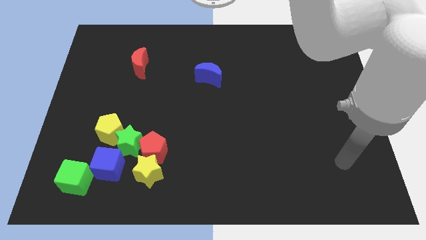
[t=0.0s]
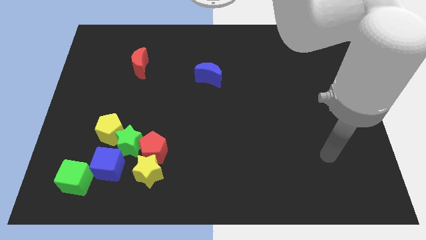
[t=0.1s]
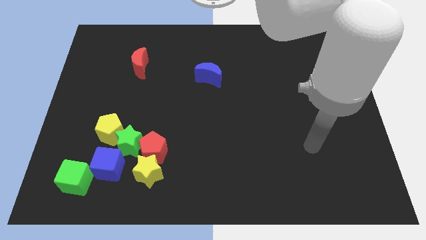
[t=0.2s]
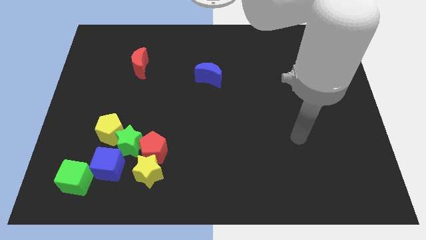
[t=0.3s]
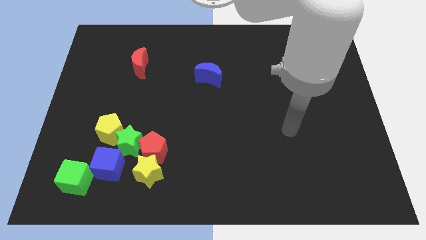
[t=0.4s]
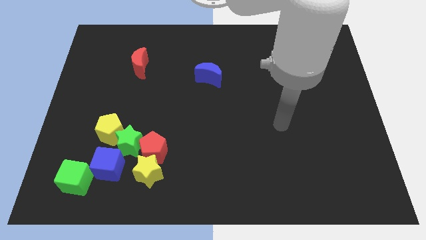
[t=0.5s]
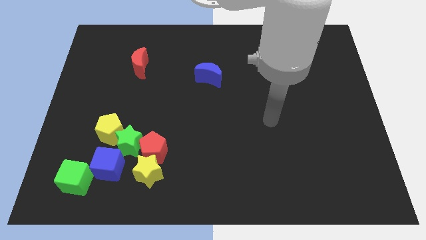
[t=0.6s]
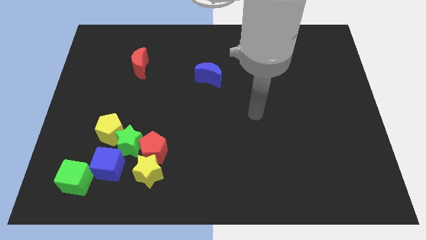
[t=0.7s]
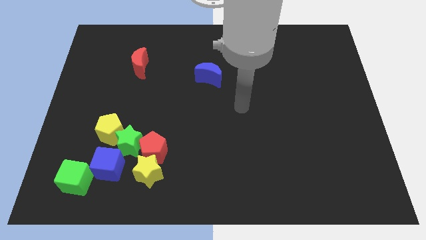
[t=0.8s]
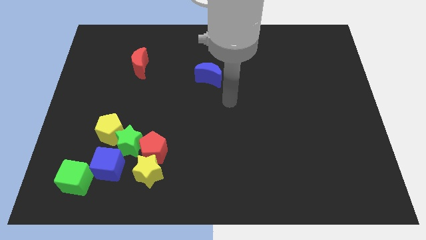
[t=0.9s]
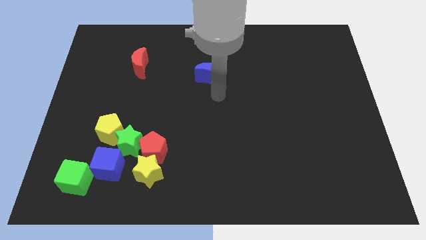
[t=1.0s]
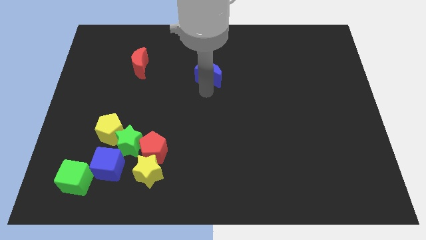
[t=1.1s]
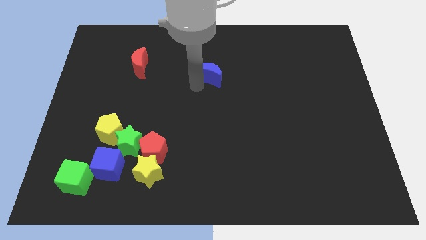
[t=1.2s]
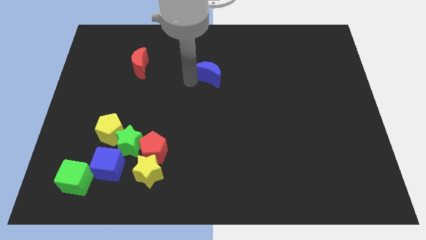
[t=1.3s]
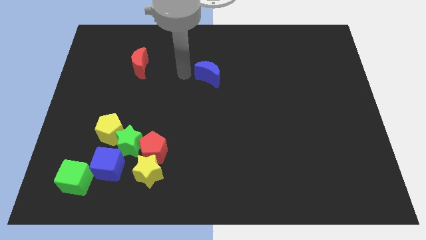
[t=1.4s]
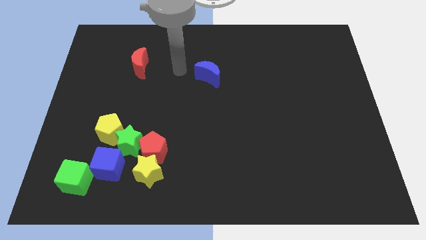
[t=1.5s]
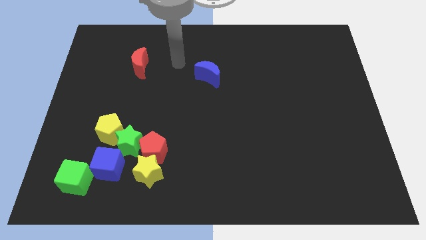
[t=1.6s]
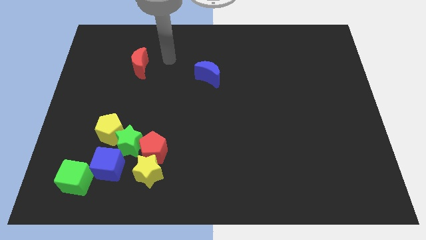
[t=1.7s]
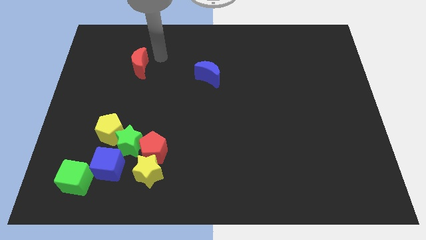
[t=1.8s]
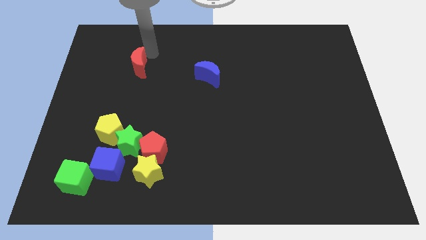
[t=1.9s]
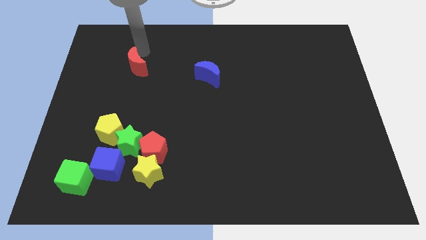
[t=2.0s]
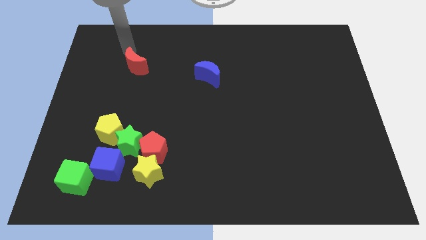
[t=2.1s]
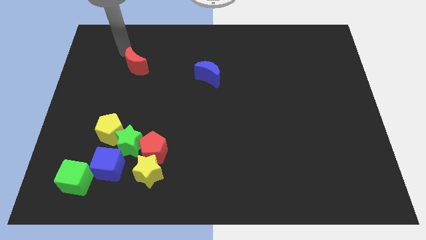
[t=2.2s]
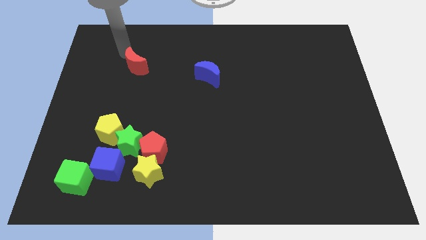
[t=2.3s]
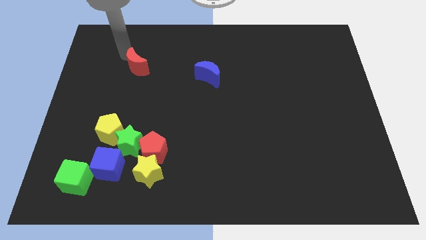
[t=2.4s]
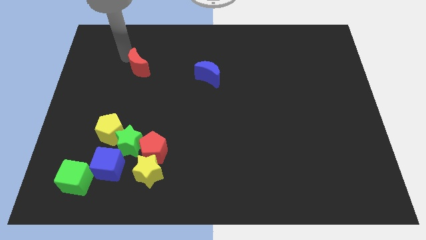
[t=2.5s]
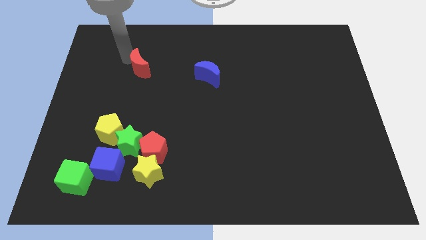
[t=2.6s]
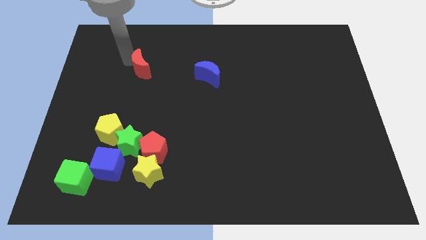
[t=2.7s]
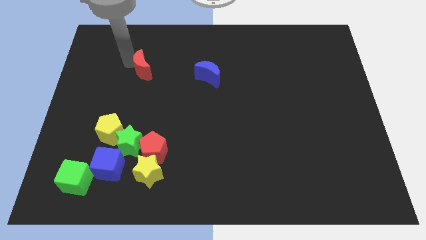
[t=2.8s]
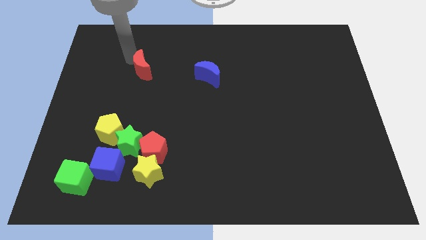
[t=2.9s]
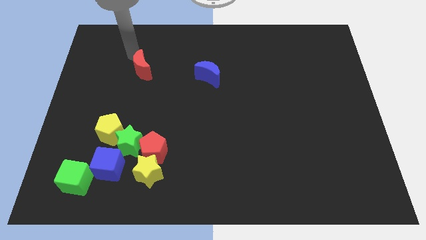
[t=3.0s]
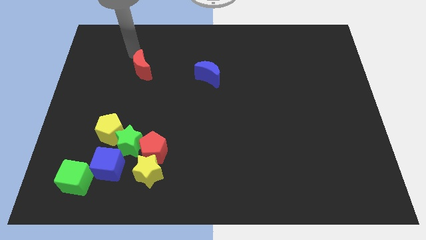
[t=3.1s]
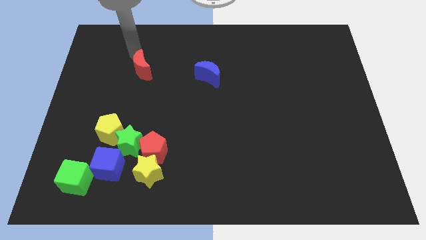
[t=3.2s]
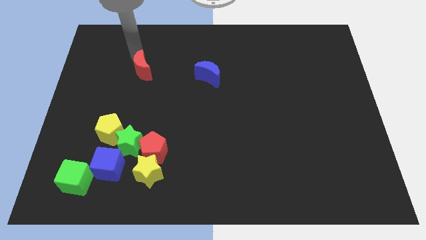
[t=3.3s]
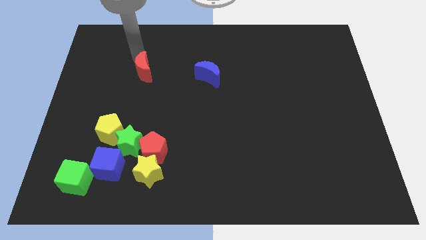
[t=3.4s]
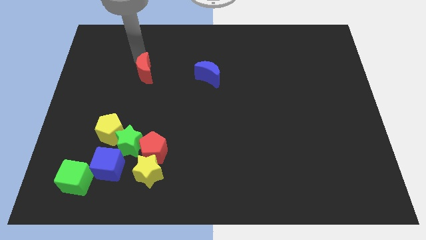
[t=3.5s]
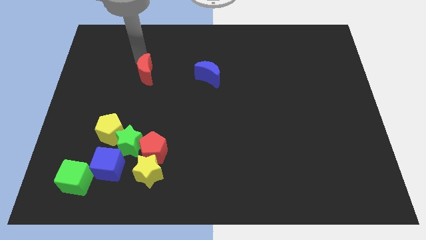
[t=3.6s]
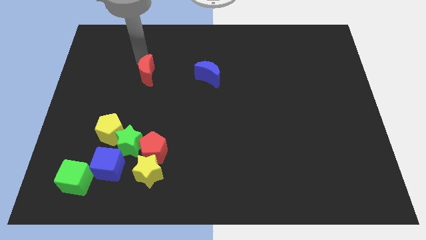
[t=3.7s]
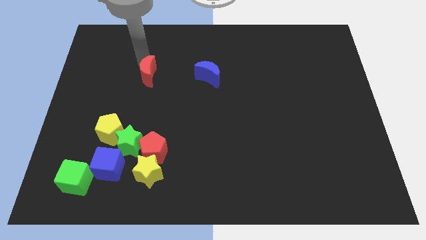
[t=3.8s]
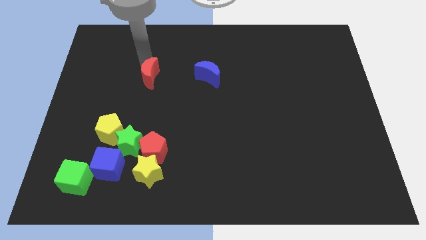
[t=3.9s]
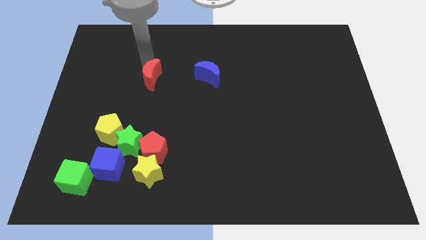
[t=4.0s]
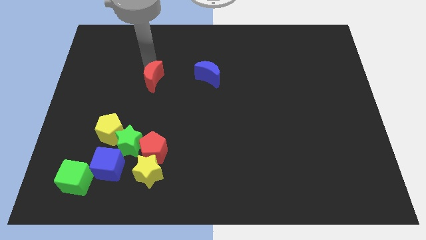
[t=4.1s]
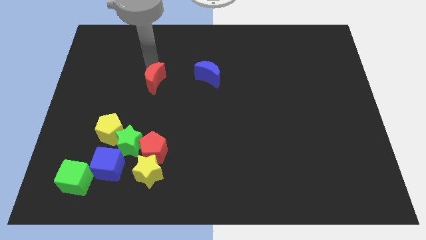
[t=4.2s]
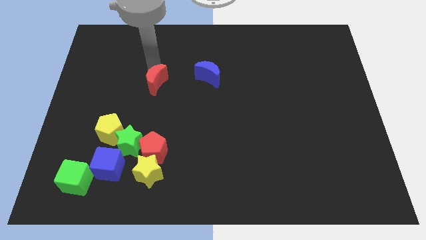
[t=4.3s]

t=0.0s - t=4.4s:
push the red moon diagonally downwards and to the right a little

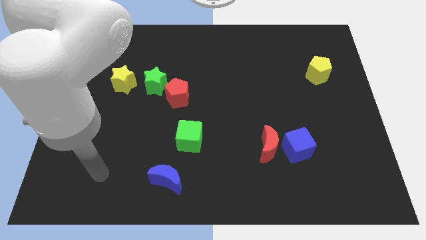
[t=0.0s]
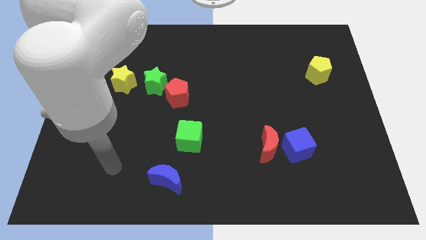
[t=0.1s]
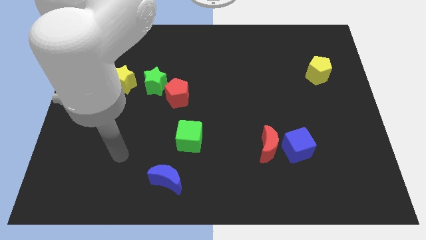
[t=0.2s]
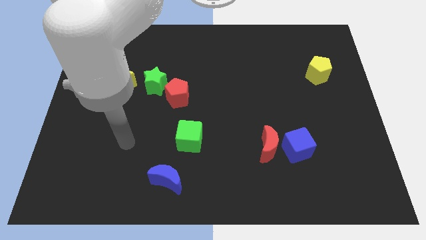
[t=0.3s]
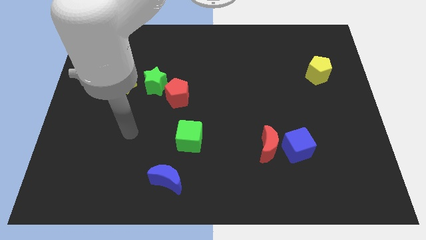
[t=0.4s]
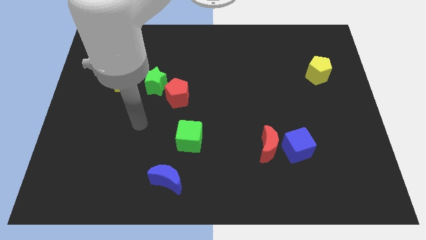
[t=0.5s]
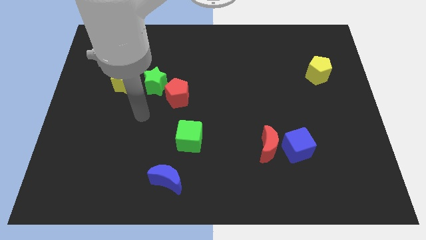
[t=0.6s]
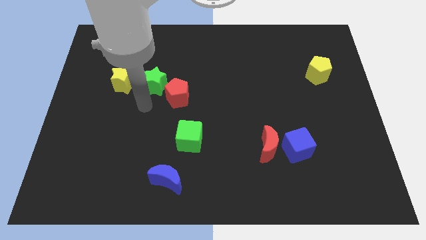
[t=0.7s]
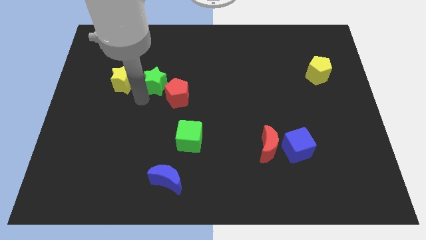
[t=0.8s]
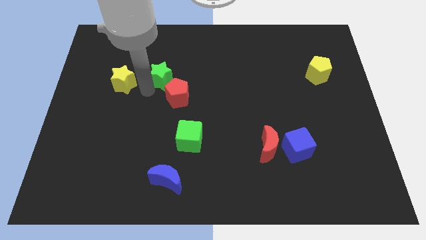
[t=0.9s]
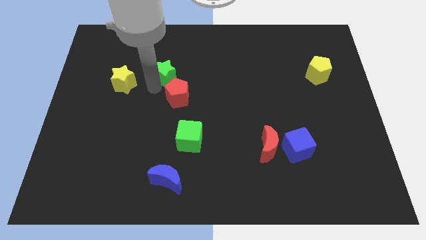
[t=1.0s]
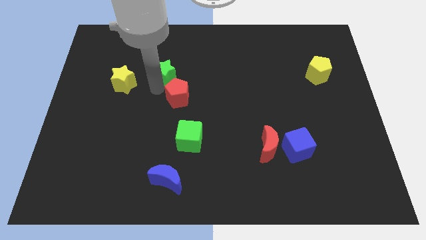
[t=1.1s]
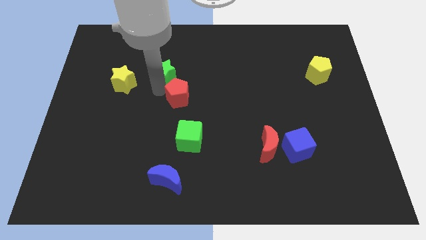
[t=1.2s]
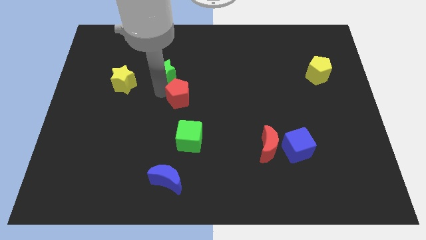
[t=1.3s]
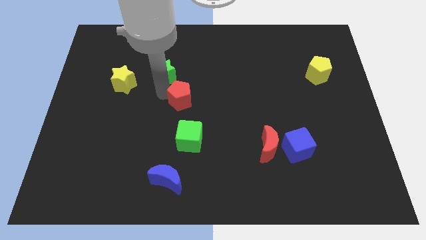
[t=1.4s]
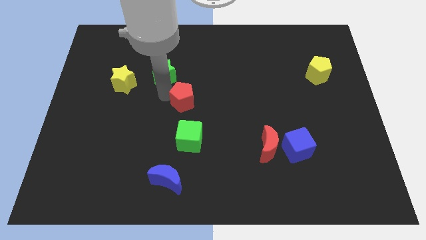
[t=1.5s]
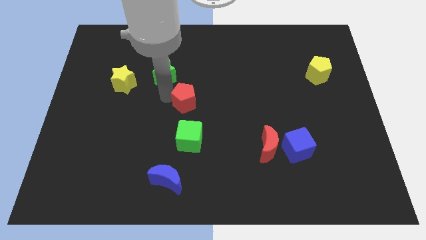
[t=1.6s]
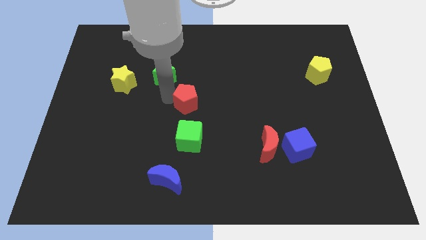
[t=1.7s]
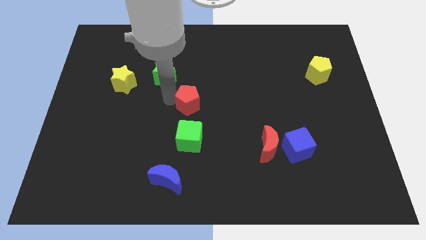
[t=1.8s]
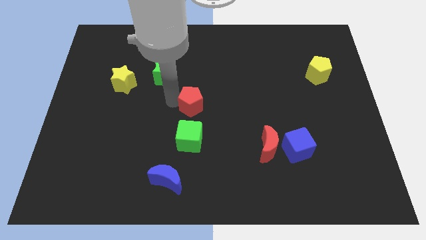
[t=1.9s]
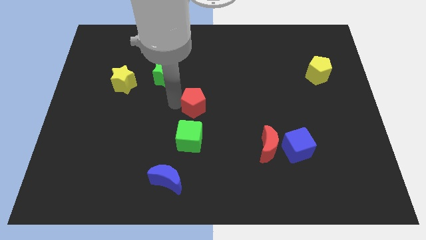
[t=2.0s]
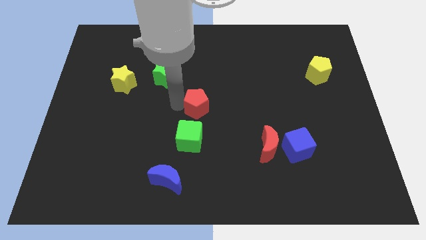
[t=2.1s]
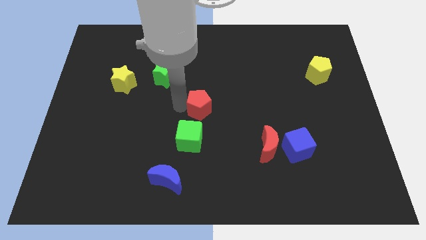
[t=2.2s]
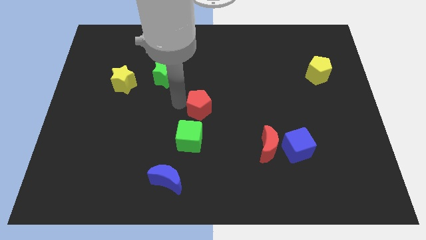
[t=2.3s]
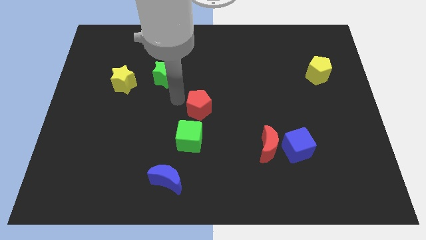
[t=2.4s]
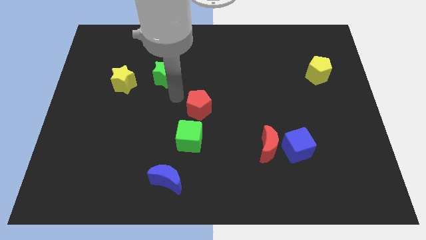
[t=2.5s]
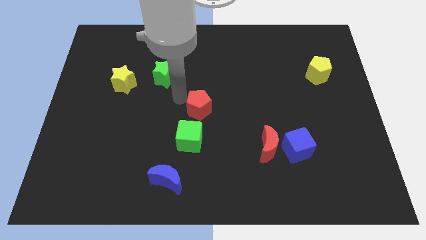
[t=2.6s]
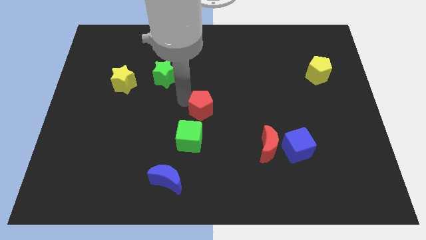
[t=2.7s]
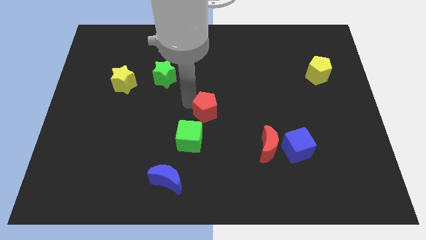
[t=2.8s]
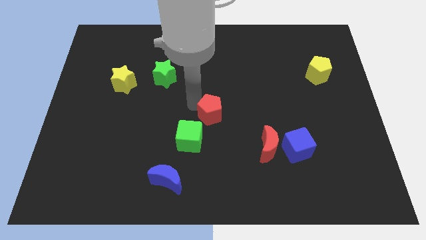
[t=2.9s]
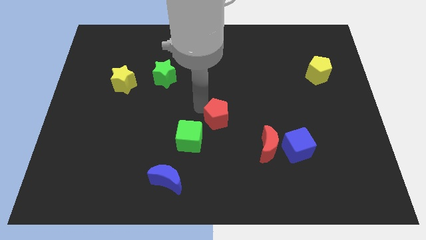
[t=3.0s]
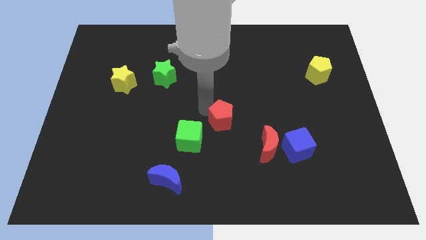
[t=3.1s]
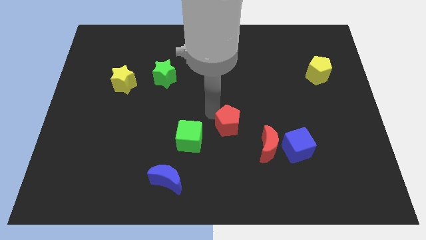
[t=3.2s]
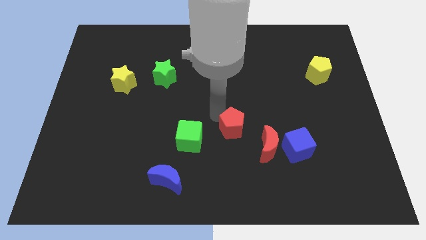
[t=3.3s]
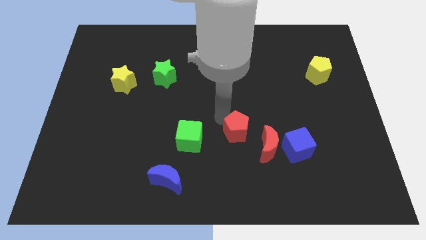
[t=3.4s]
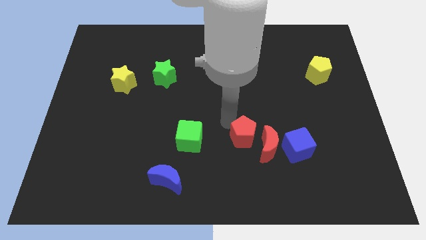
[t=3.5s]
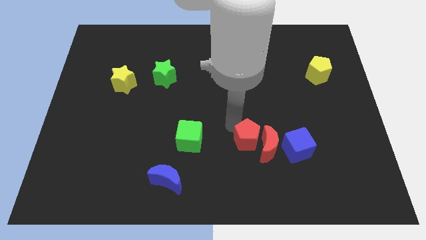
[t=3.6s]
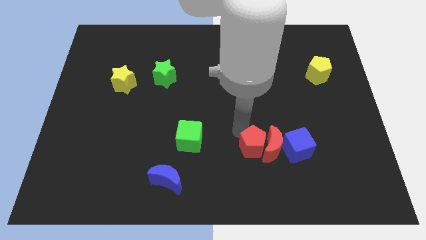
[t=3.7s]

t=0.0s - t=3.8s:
push the red pentagon downwards and right diagonally
